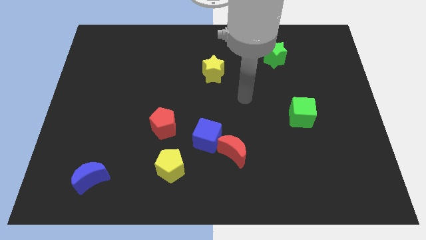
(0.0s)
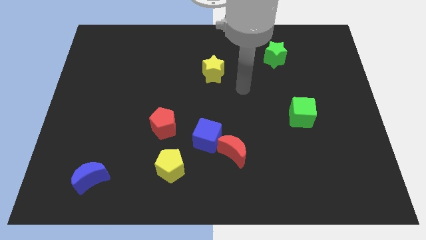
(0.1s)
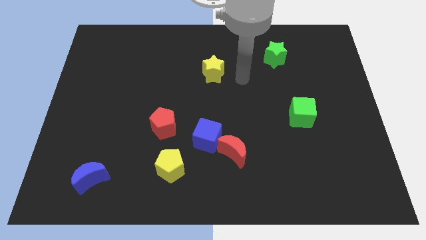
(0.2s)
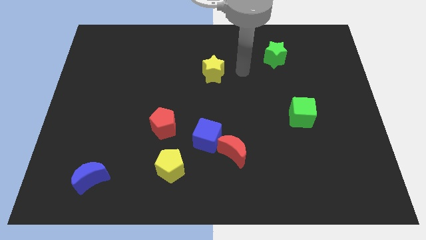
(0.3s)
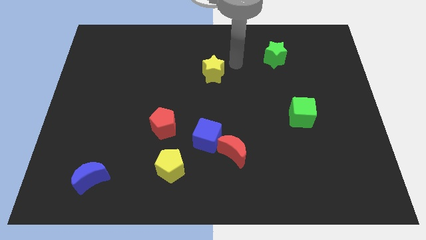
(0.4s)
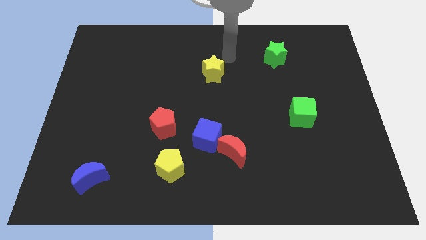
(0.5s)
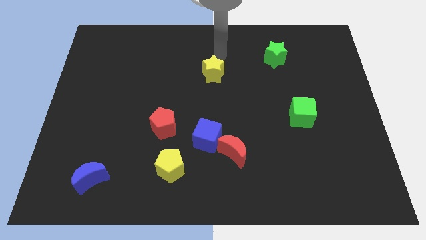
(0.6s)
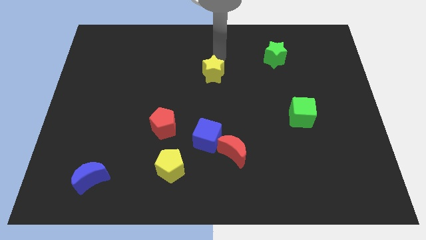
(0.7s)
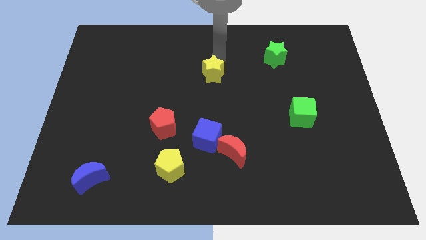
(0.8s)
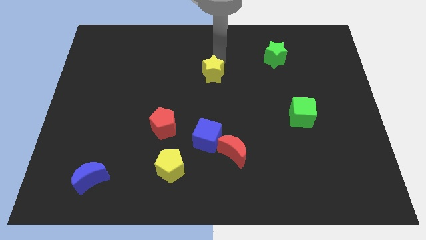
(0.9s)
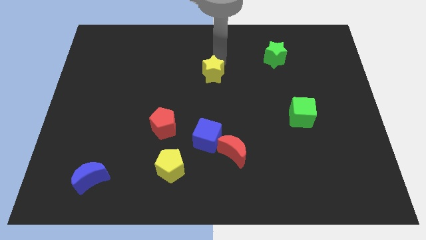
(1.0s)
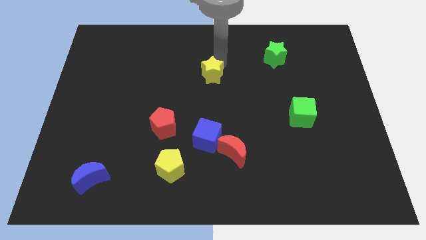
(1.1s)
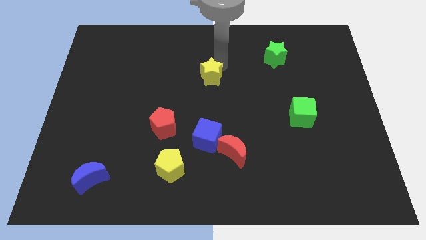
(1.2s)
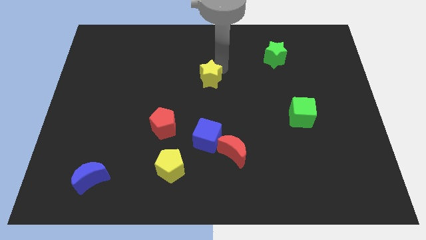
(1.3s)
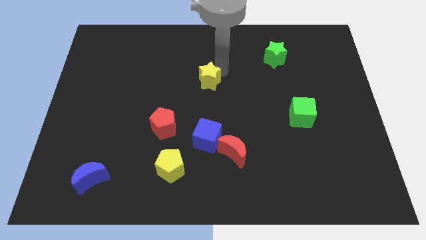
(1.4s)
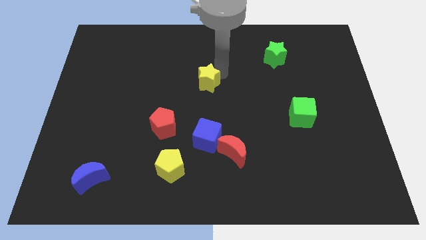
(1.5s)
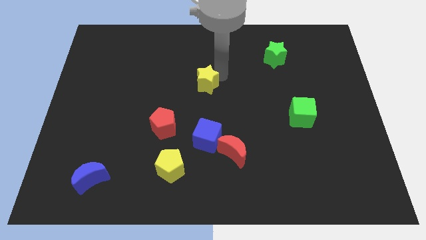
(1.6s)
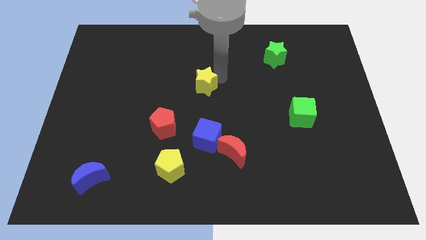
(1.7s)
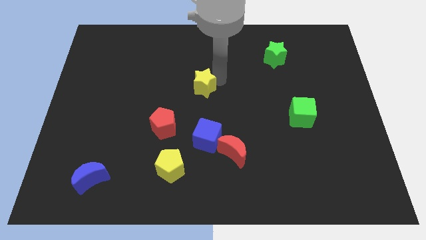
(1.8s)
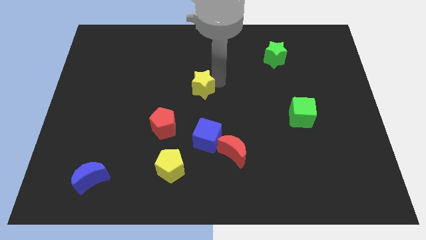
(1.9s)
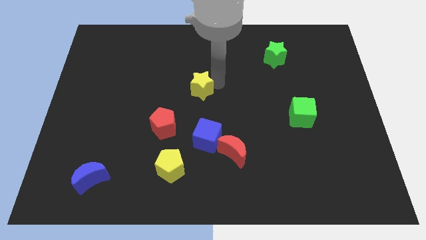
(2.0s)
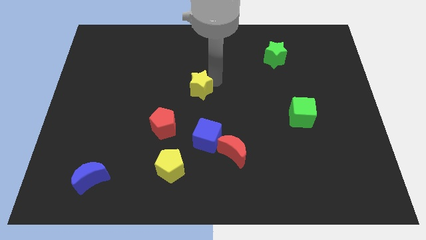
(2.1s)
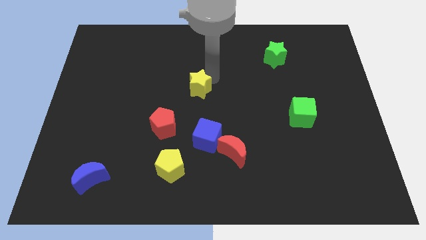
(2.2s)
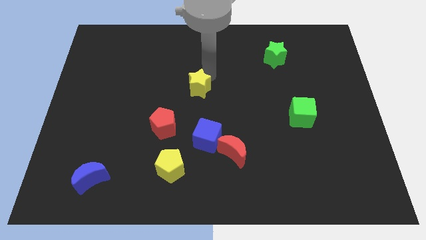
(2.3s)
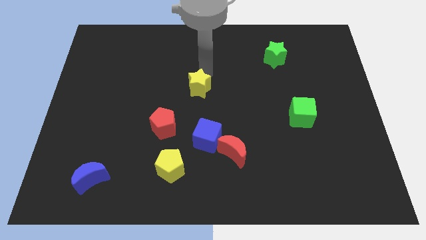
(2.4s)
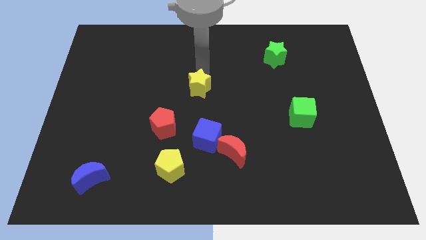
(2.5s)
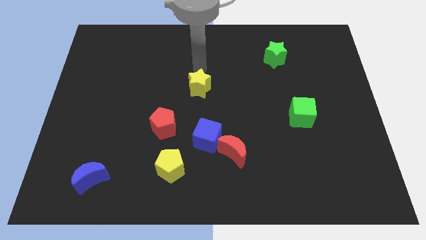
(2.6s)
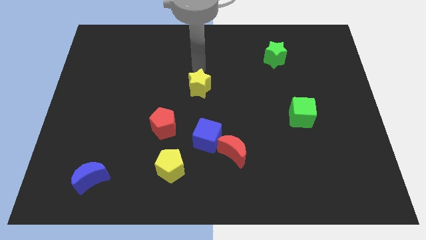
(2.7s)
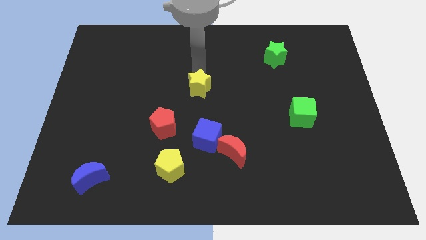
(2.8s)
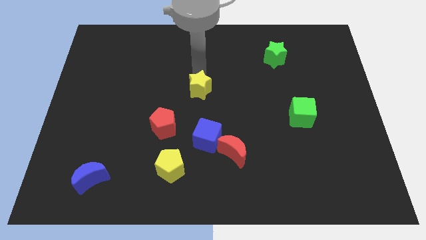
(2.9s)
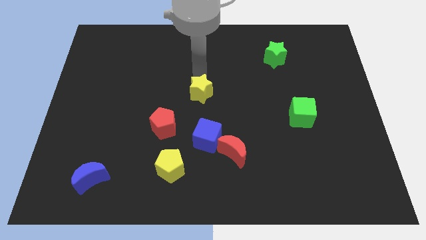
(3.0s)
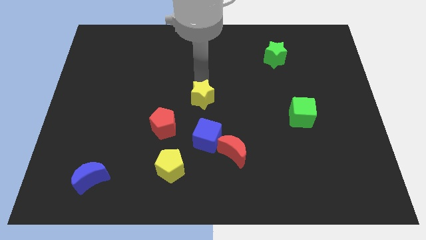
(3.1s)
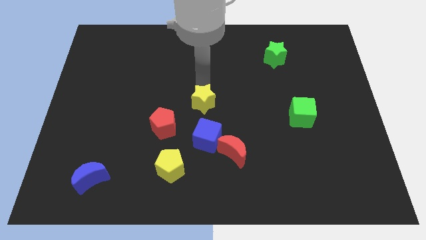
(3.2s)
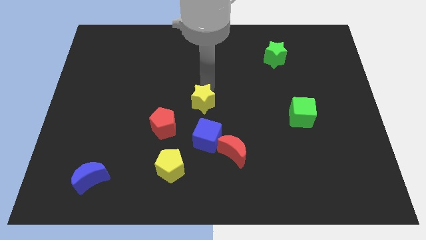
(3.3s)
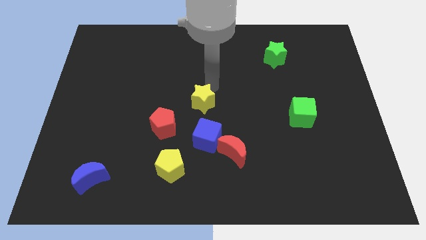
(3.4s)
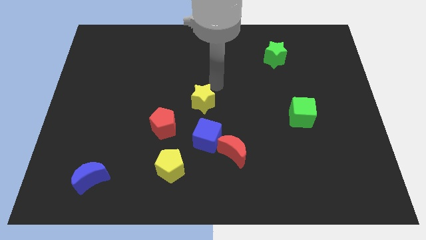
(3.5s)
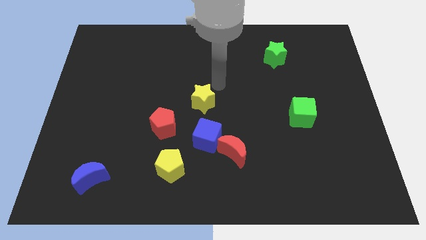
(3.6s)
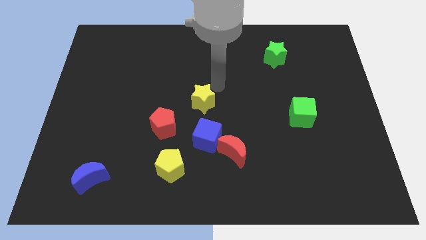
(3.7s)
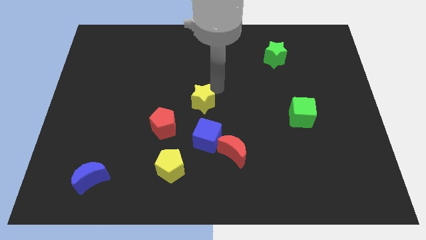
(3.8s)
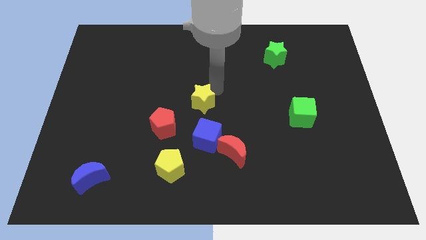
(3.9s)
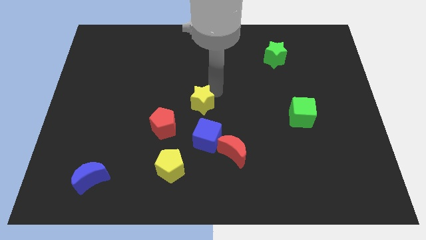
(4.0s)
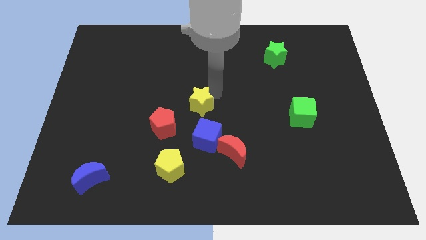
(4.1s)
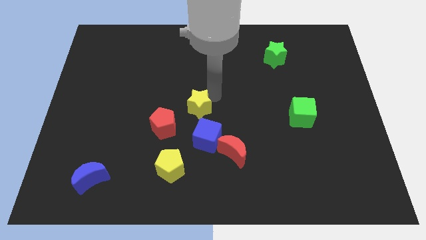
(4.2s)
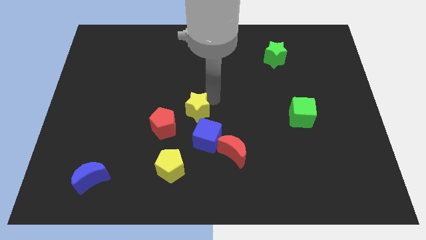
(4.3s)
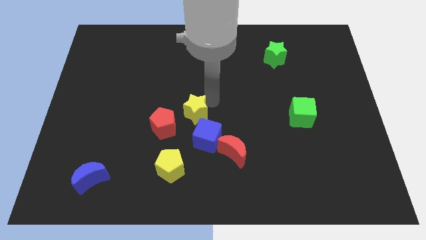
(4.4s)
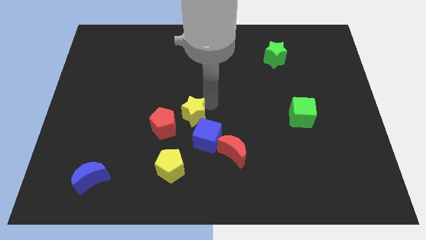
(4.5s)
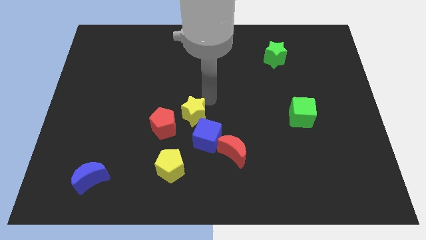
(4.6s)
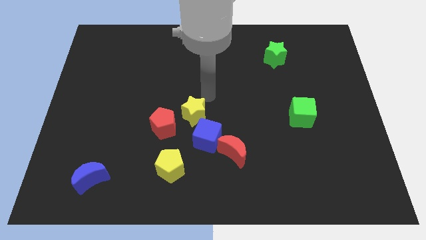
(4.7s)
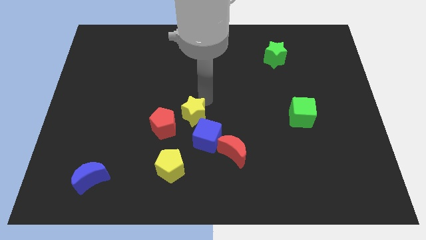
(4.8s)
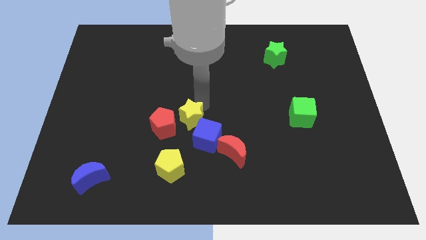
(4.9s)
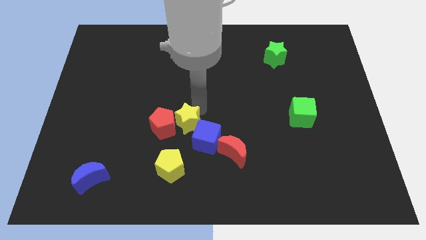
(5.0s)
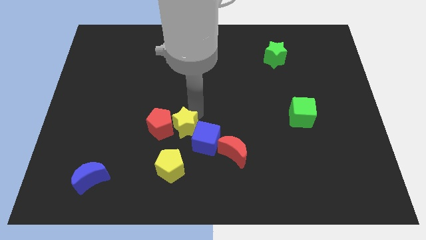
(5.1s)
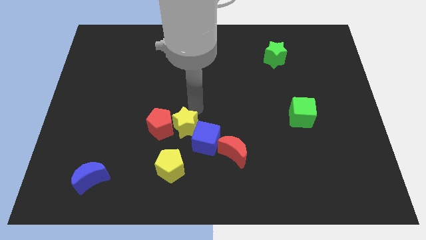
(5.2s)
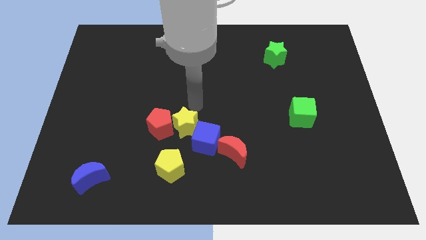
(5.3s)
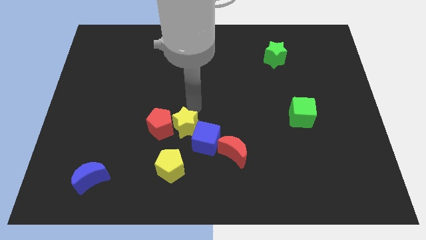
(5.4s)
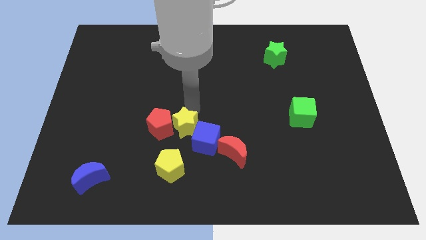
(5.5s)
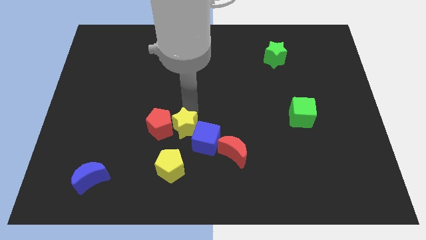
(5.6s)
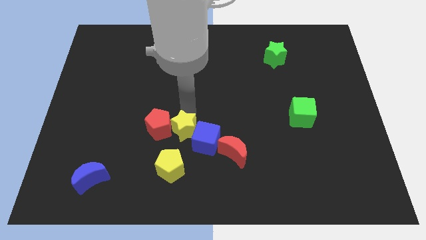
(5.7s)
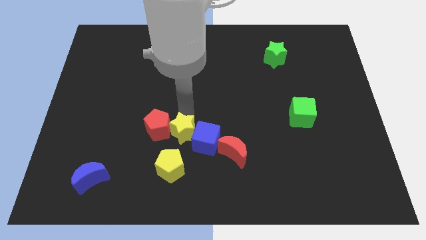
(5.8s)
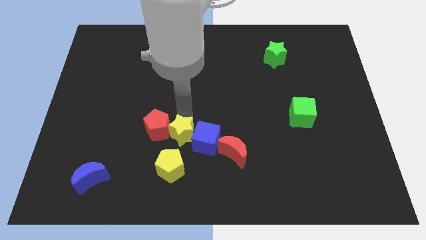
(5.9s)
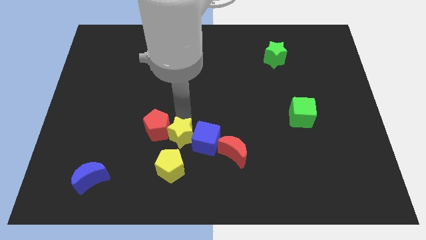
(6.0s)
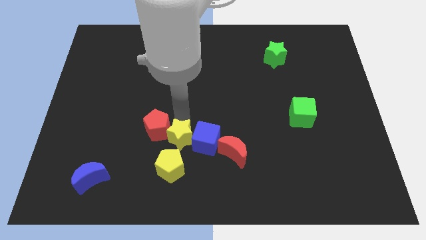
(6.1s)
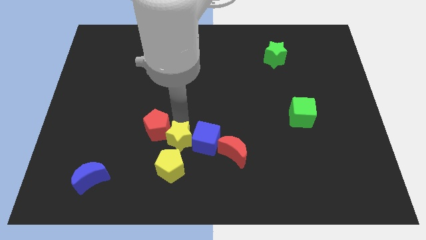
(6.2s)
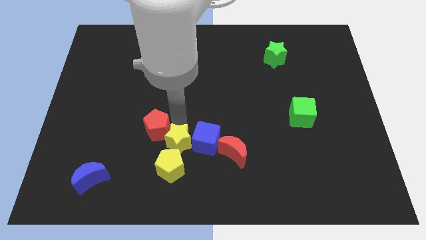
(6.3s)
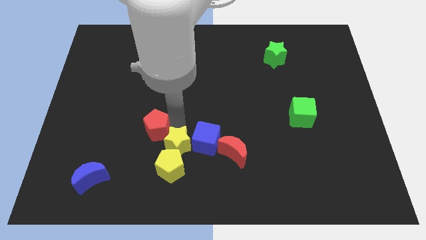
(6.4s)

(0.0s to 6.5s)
put the yellow star close to the yellow pentagon

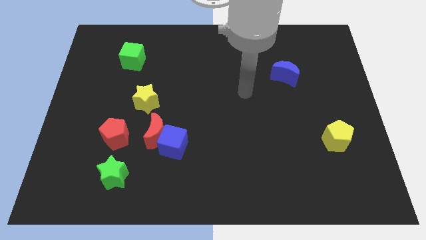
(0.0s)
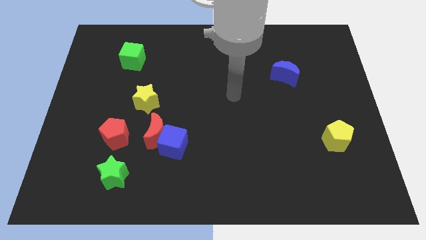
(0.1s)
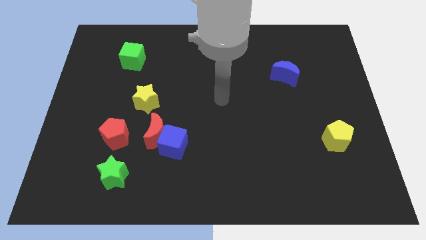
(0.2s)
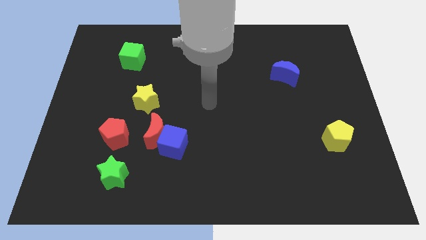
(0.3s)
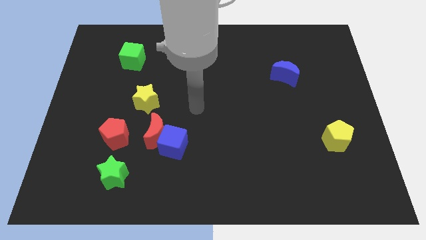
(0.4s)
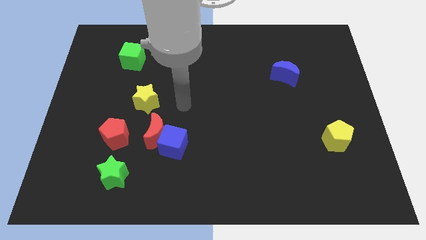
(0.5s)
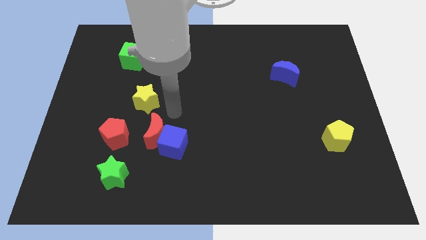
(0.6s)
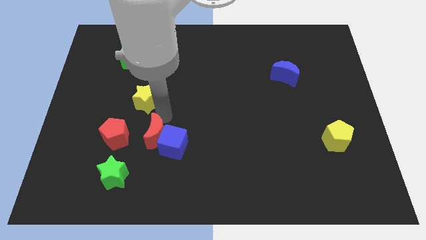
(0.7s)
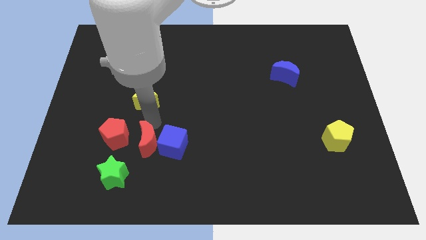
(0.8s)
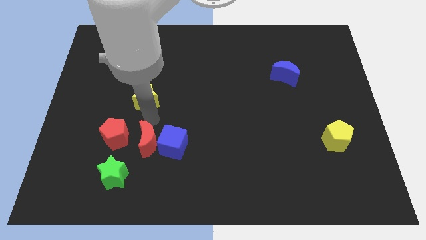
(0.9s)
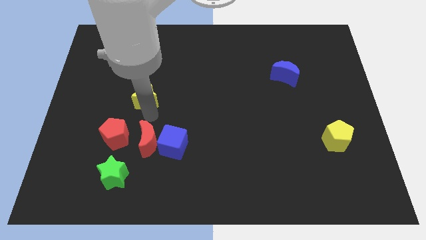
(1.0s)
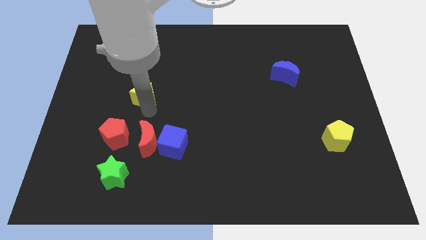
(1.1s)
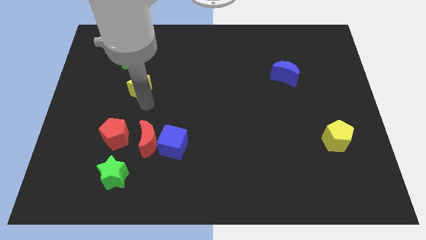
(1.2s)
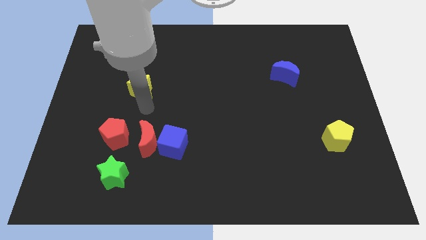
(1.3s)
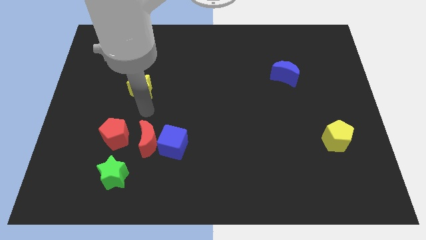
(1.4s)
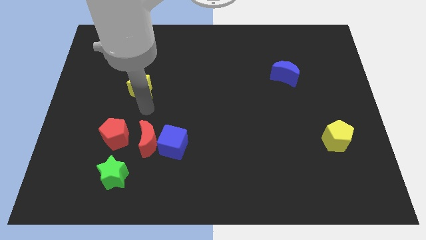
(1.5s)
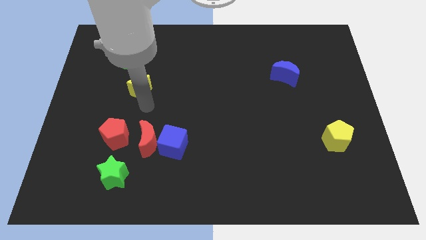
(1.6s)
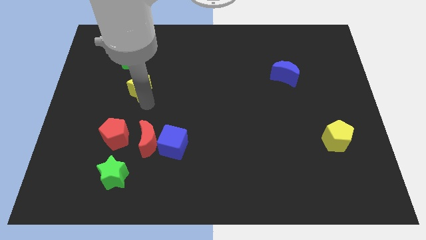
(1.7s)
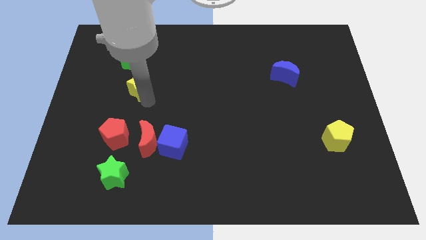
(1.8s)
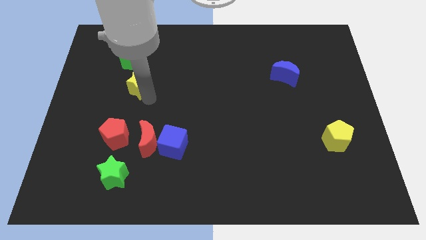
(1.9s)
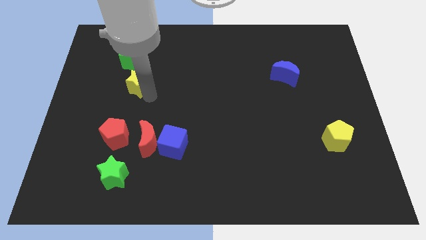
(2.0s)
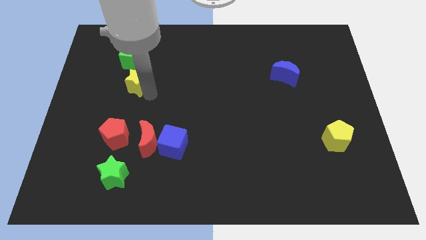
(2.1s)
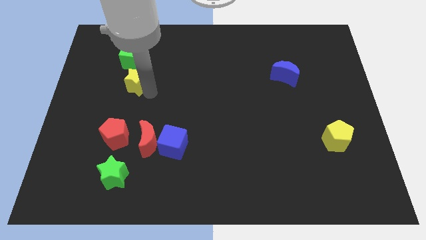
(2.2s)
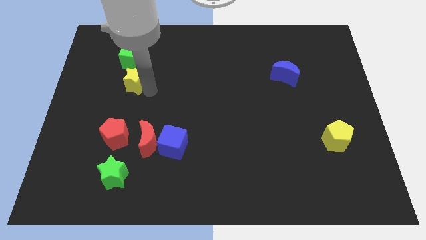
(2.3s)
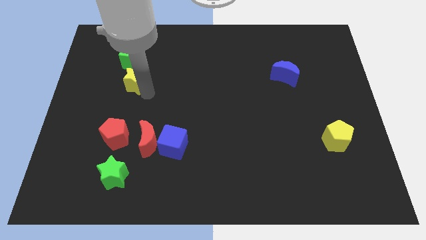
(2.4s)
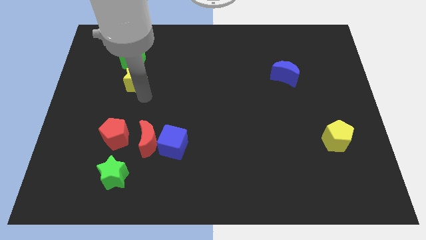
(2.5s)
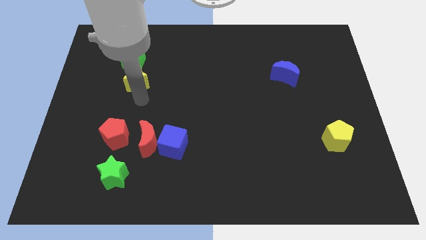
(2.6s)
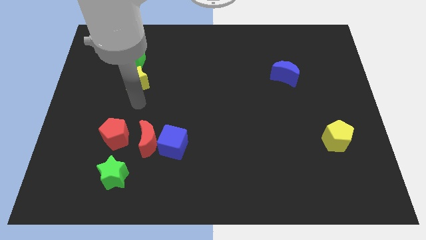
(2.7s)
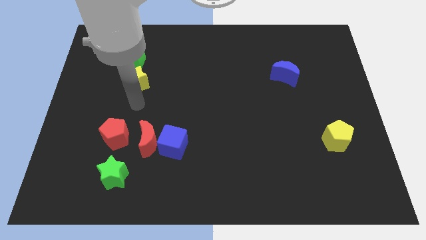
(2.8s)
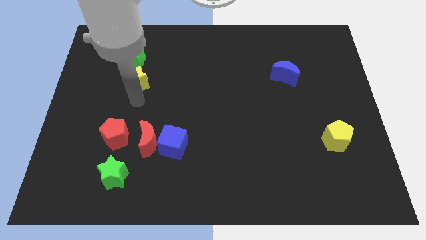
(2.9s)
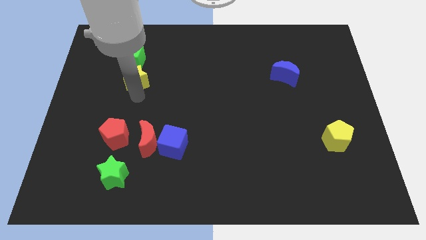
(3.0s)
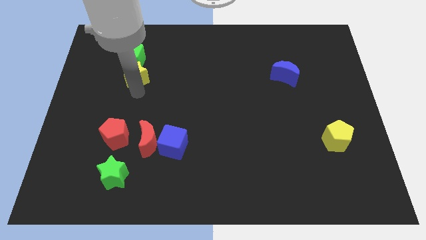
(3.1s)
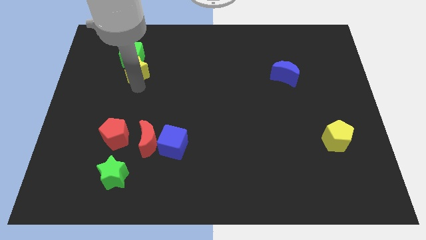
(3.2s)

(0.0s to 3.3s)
slide the yellow star next to the green cube
